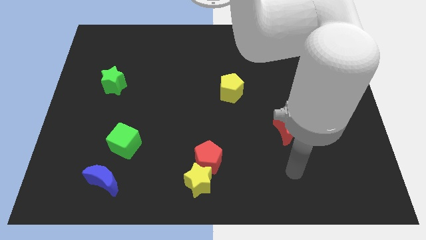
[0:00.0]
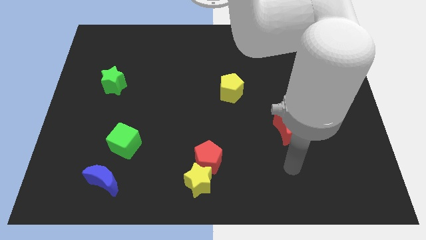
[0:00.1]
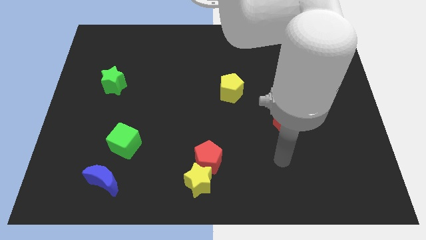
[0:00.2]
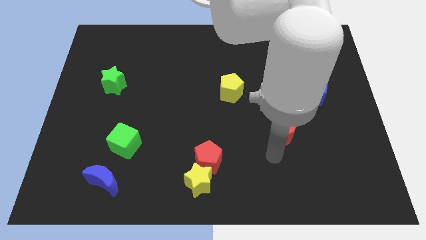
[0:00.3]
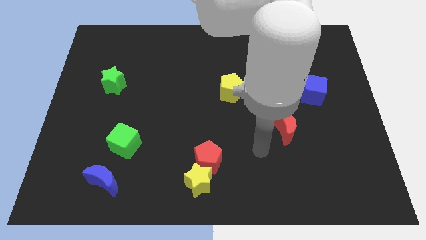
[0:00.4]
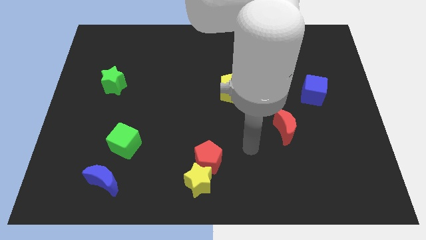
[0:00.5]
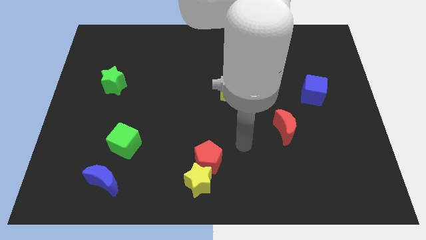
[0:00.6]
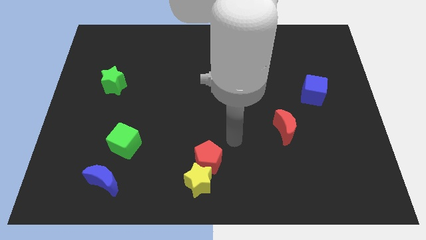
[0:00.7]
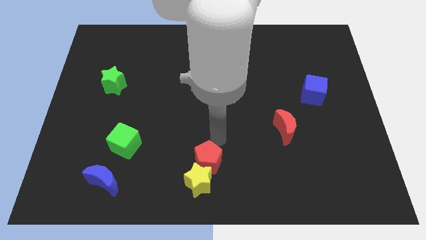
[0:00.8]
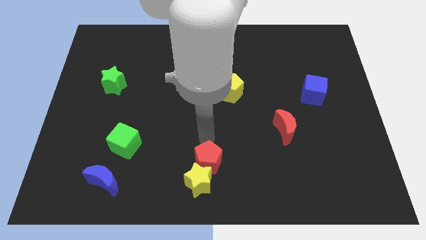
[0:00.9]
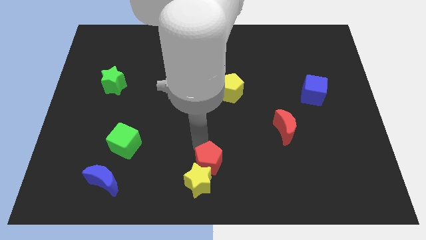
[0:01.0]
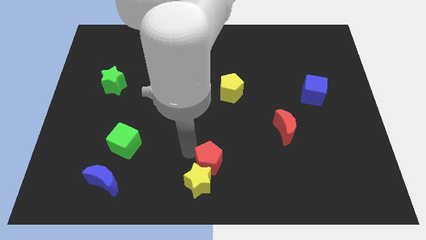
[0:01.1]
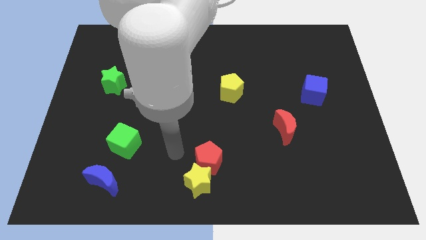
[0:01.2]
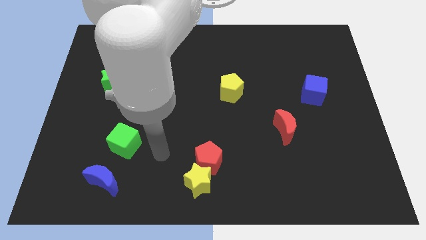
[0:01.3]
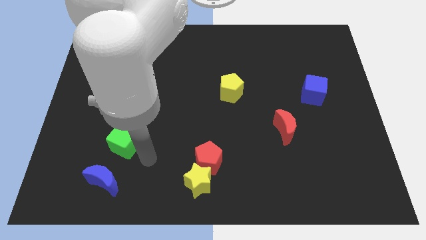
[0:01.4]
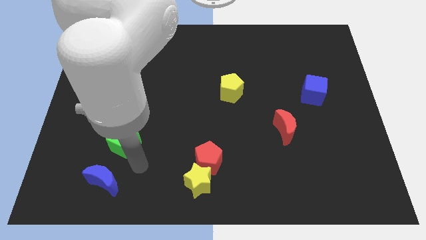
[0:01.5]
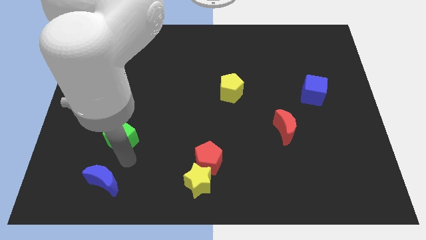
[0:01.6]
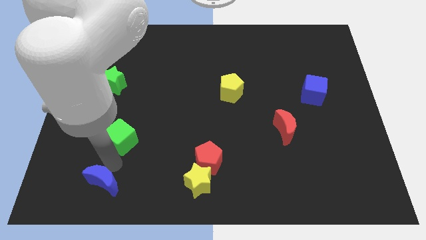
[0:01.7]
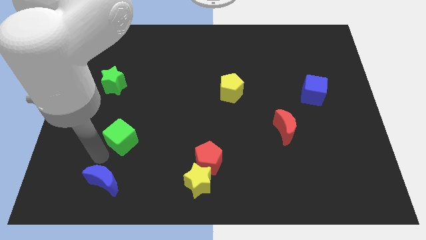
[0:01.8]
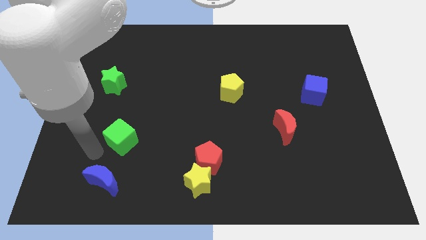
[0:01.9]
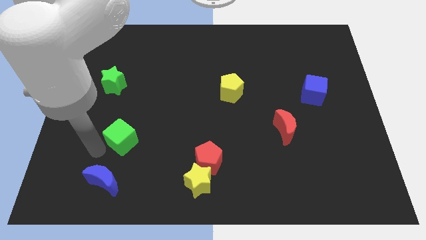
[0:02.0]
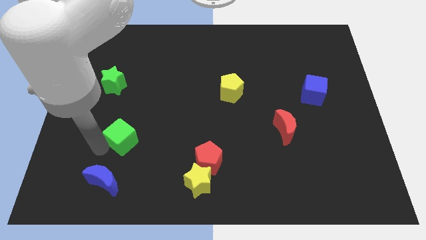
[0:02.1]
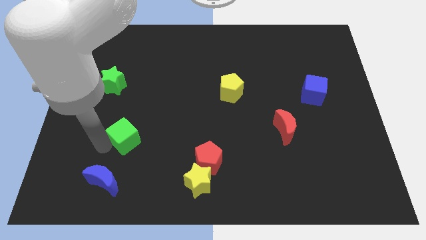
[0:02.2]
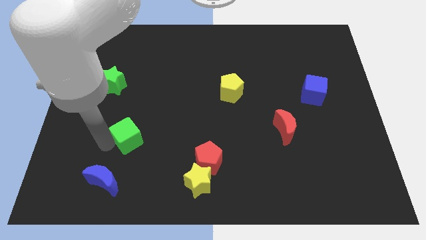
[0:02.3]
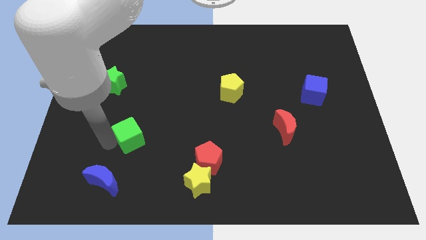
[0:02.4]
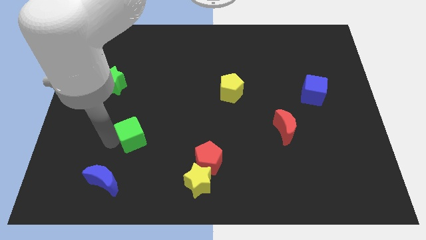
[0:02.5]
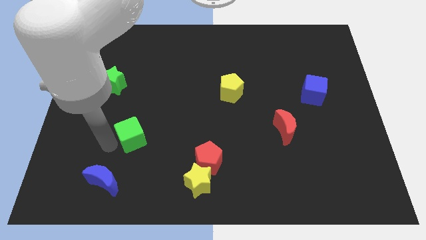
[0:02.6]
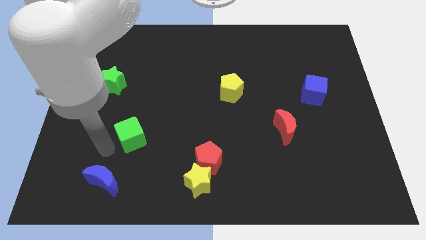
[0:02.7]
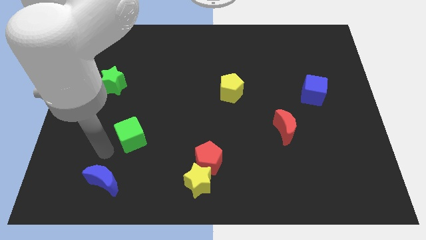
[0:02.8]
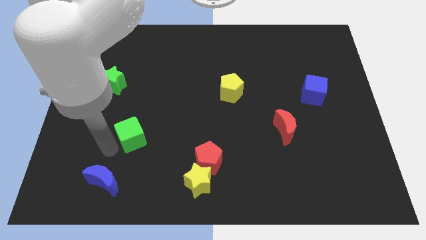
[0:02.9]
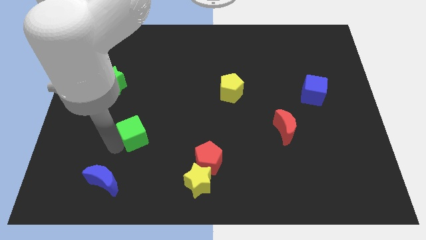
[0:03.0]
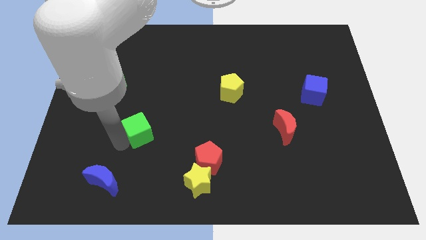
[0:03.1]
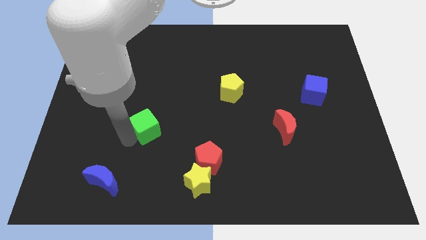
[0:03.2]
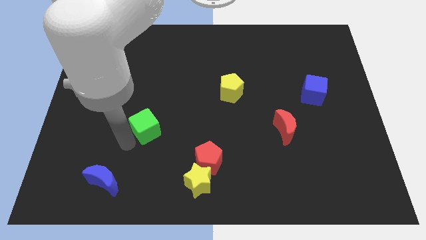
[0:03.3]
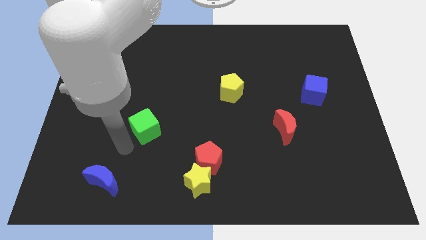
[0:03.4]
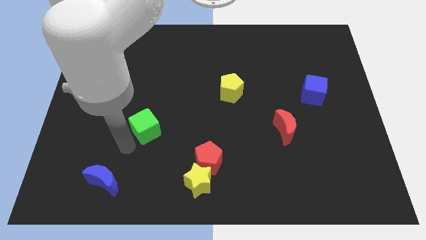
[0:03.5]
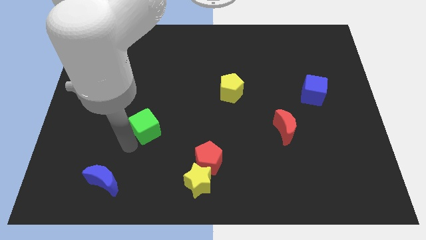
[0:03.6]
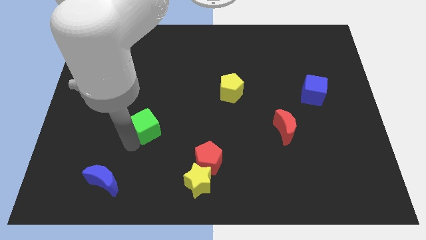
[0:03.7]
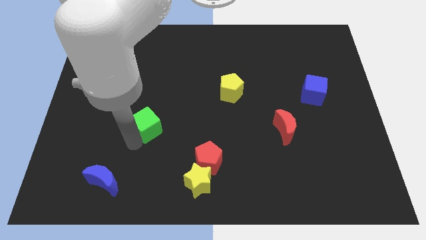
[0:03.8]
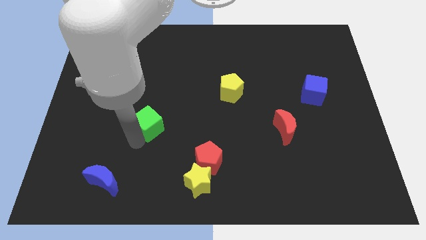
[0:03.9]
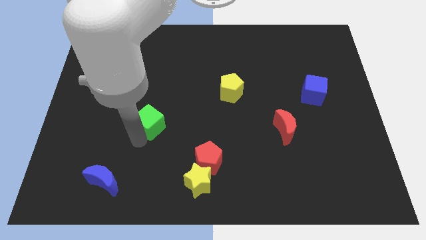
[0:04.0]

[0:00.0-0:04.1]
move the green cube slightly upwards and then right

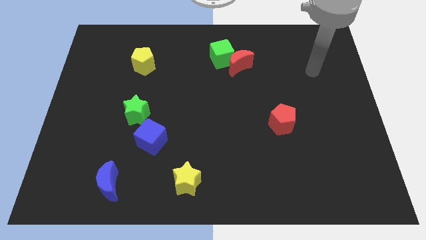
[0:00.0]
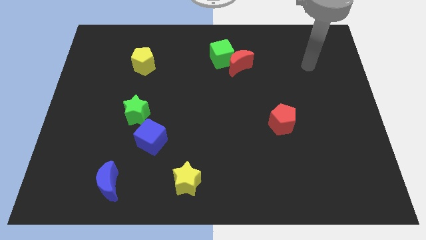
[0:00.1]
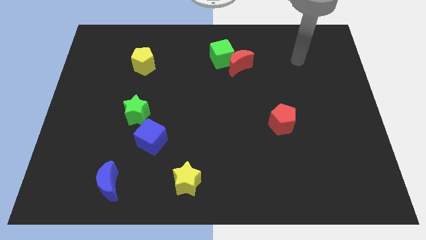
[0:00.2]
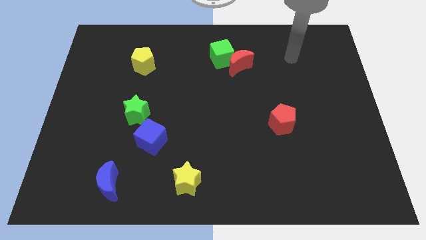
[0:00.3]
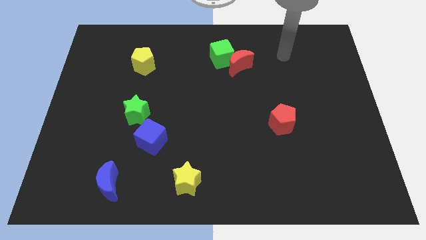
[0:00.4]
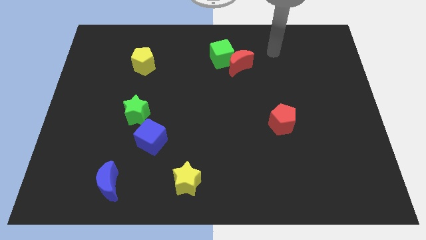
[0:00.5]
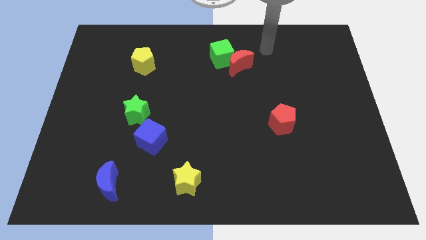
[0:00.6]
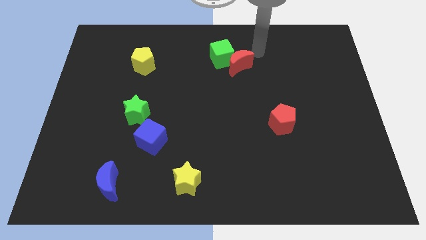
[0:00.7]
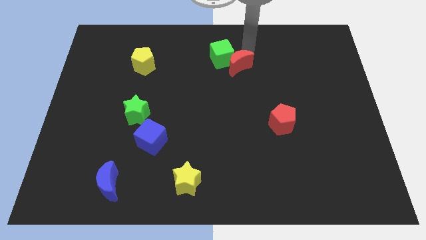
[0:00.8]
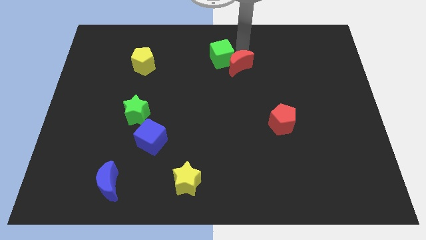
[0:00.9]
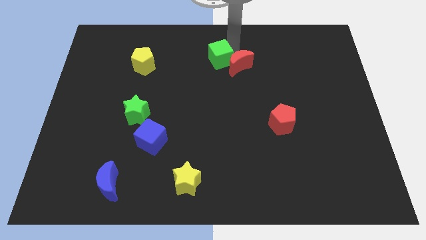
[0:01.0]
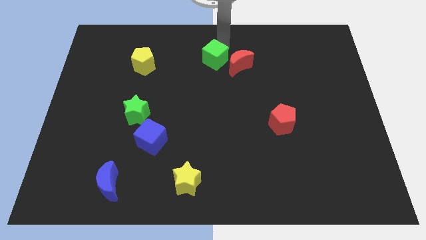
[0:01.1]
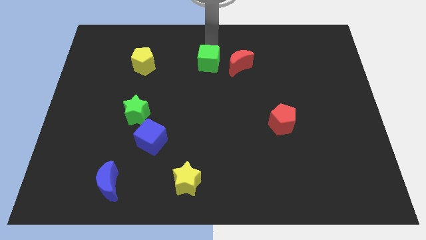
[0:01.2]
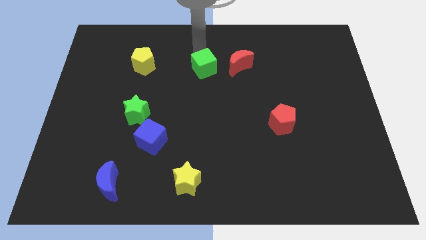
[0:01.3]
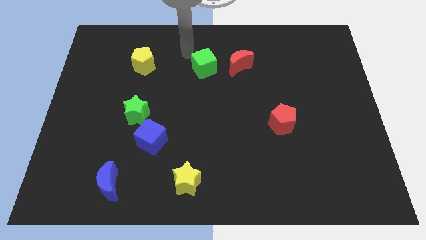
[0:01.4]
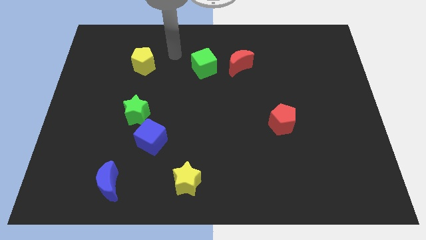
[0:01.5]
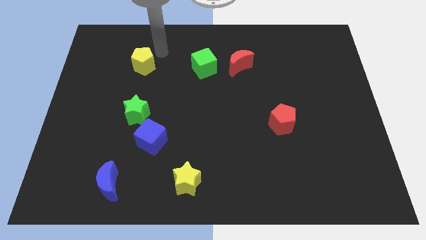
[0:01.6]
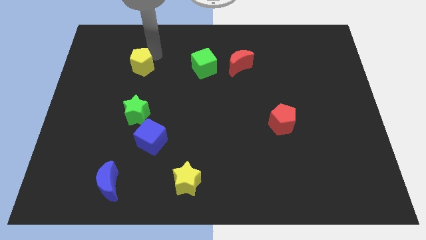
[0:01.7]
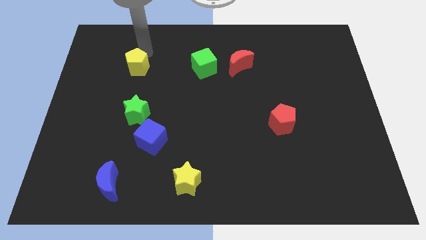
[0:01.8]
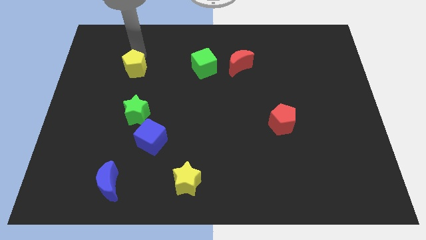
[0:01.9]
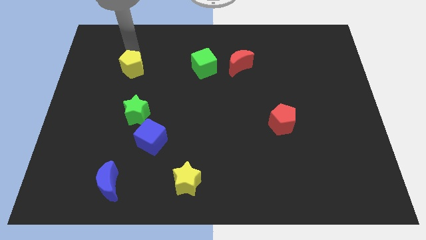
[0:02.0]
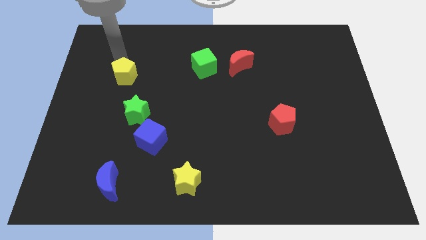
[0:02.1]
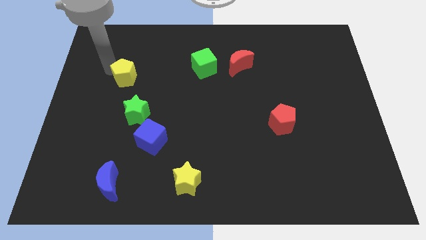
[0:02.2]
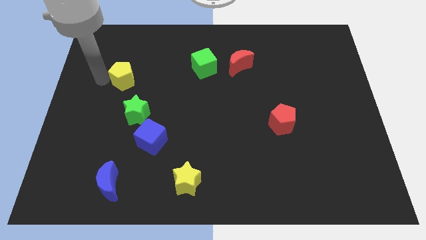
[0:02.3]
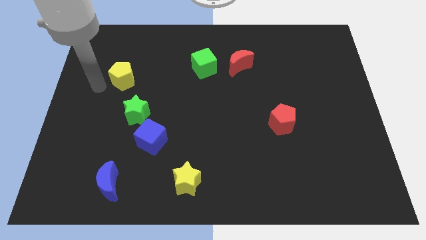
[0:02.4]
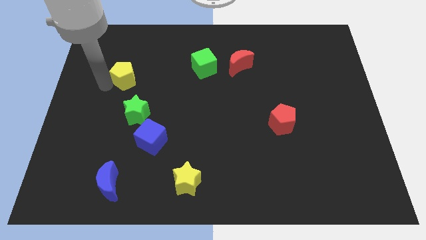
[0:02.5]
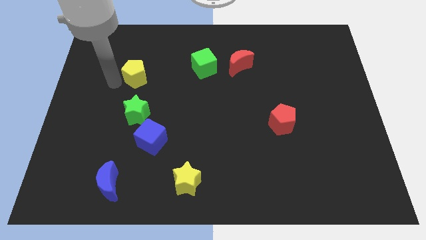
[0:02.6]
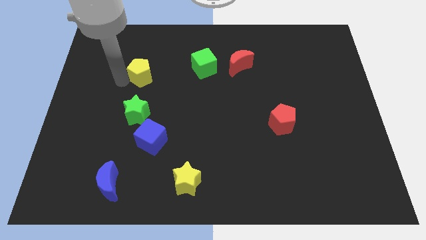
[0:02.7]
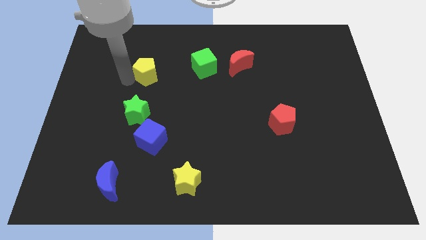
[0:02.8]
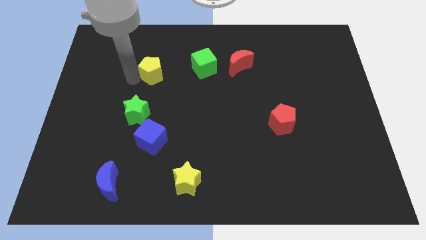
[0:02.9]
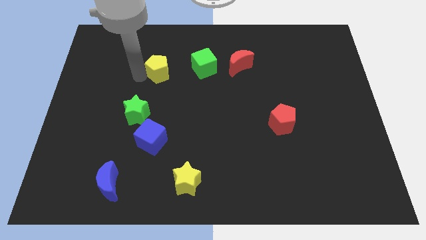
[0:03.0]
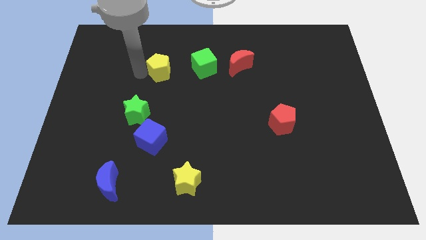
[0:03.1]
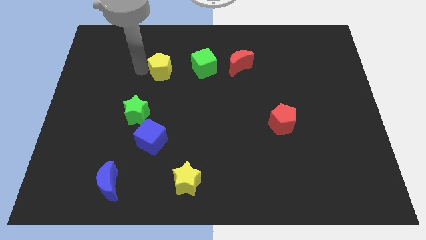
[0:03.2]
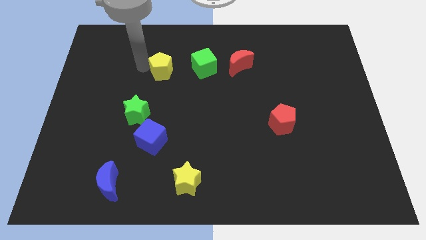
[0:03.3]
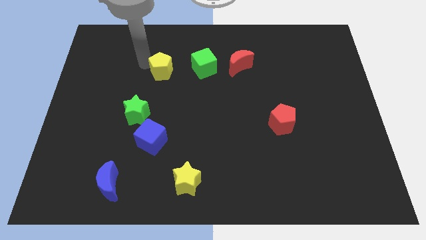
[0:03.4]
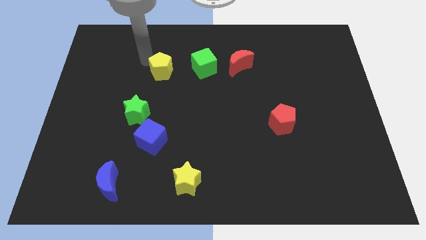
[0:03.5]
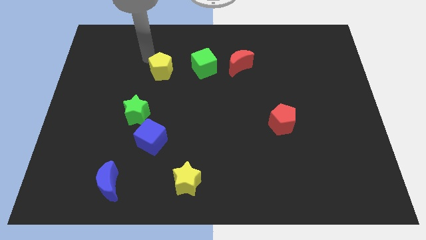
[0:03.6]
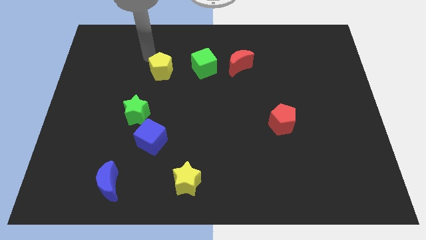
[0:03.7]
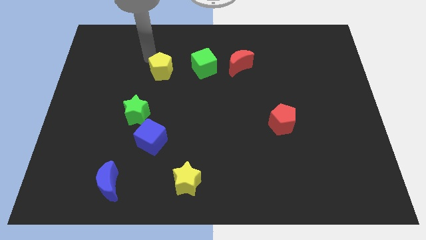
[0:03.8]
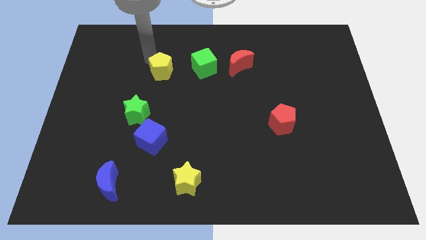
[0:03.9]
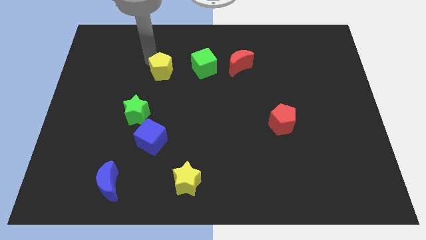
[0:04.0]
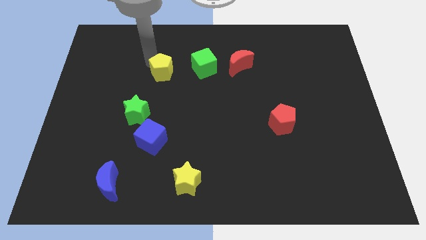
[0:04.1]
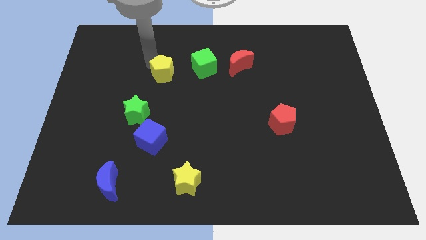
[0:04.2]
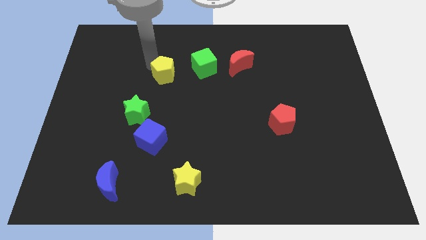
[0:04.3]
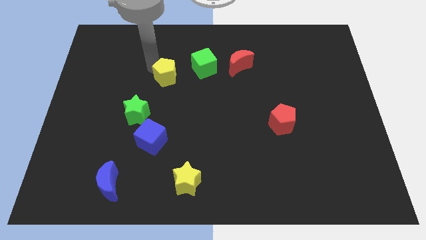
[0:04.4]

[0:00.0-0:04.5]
move the yellow pentagon diagonally downwards and right a little
